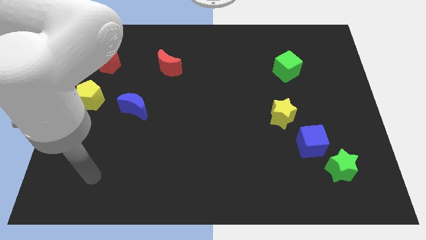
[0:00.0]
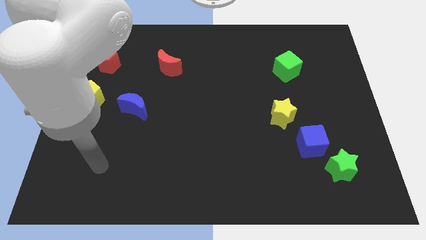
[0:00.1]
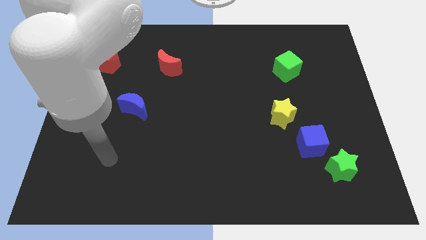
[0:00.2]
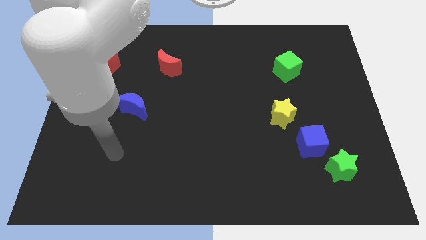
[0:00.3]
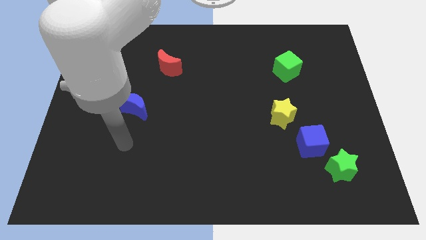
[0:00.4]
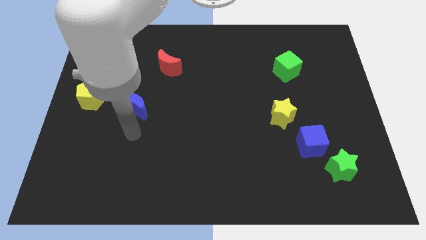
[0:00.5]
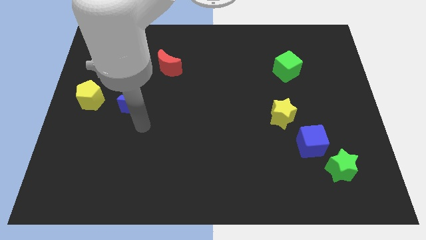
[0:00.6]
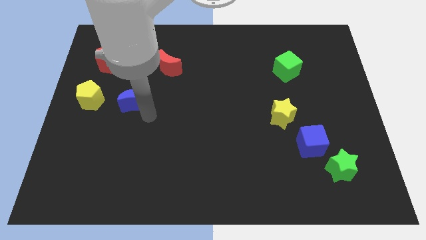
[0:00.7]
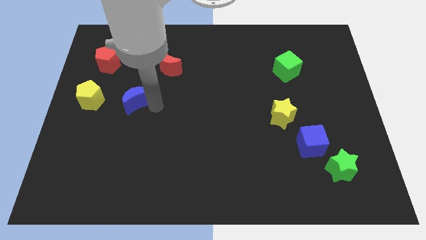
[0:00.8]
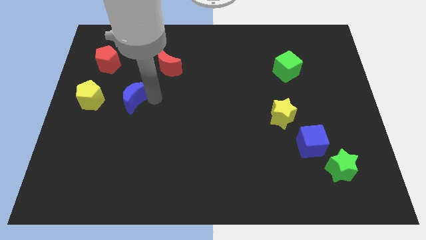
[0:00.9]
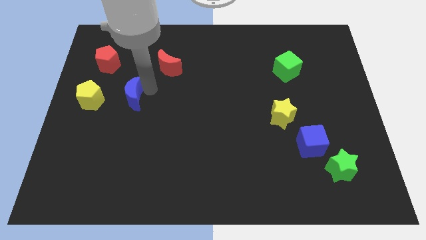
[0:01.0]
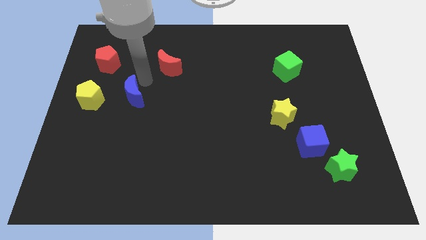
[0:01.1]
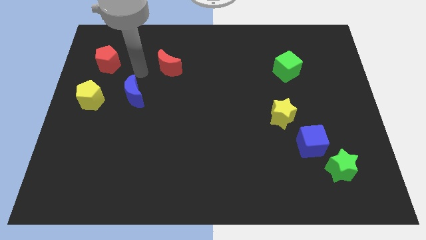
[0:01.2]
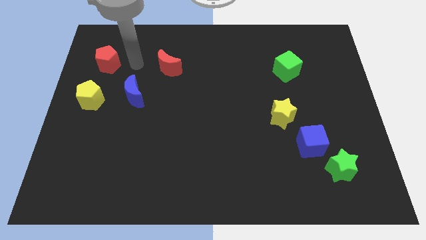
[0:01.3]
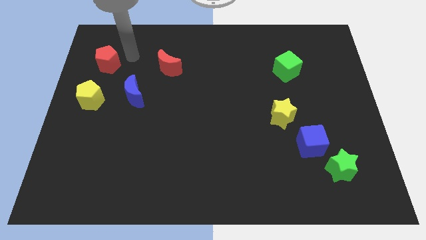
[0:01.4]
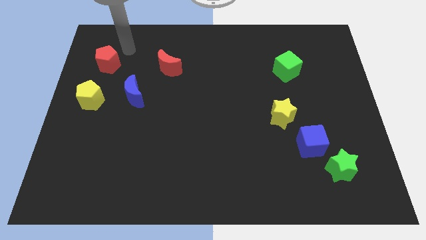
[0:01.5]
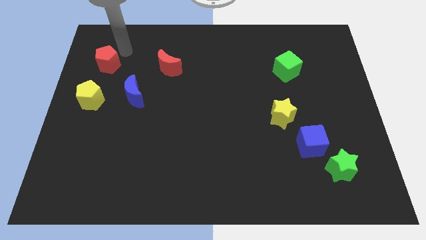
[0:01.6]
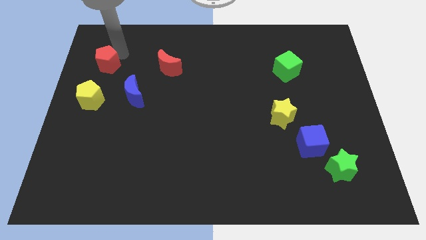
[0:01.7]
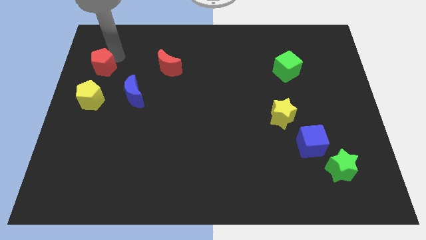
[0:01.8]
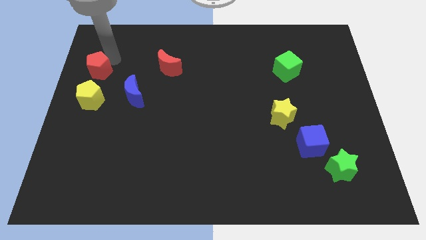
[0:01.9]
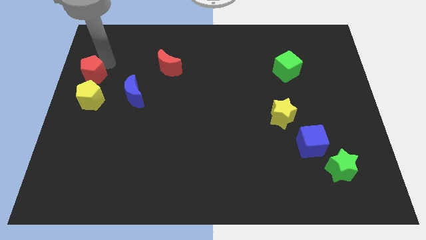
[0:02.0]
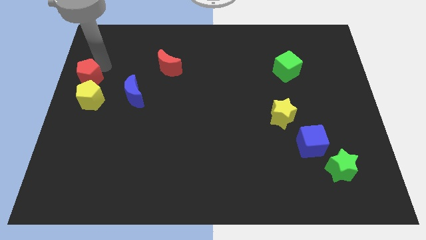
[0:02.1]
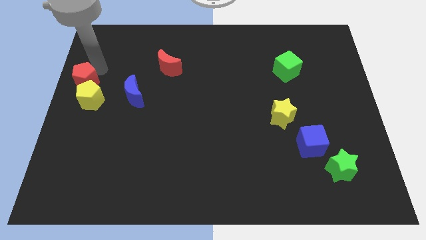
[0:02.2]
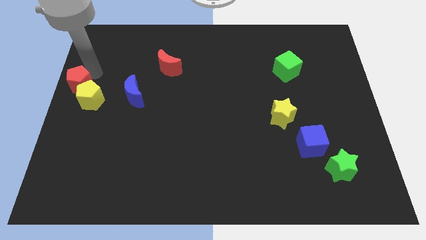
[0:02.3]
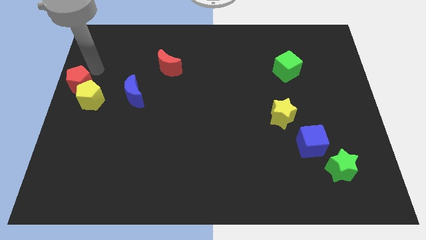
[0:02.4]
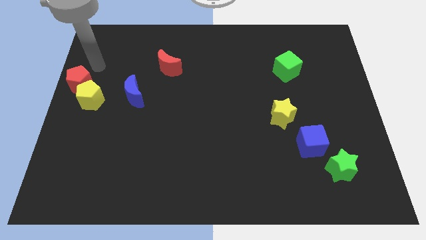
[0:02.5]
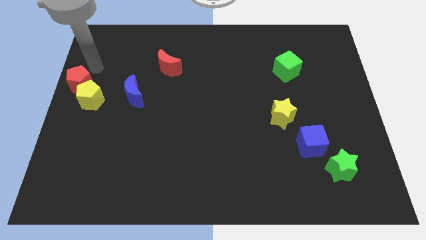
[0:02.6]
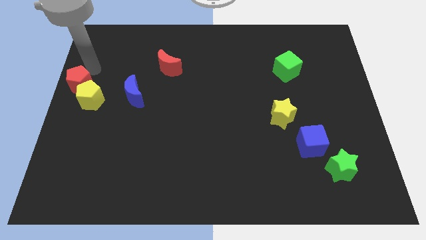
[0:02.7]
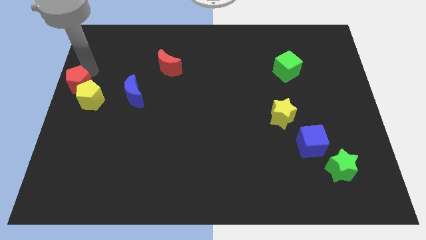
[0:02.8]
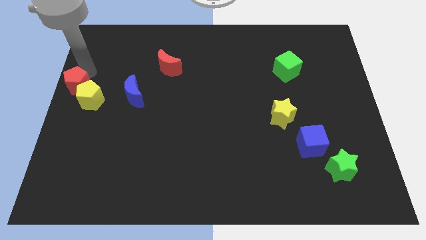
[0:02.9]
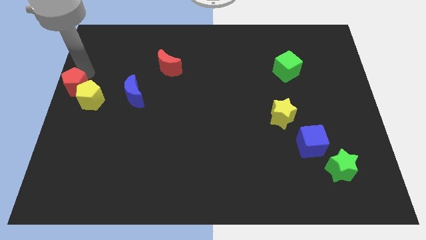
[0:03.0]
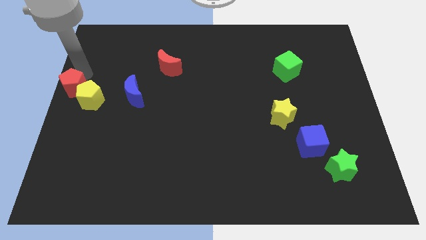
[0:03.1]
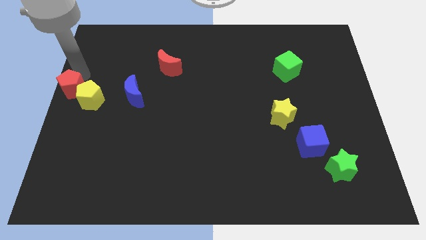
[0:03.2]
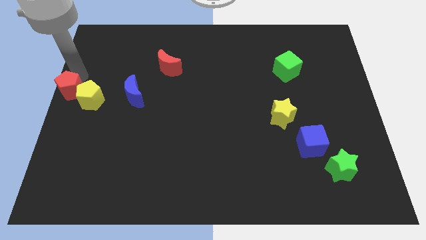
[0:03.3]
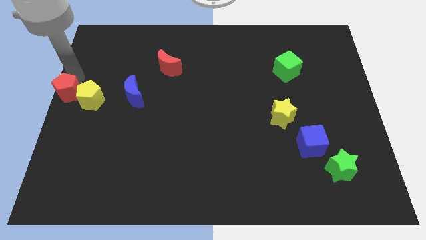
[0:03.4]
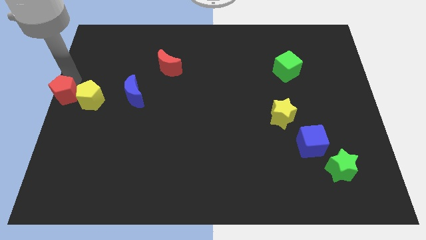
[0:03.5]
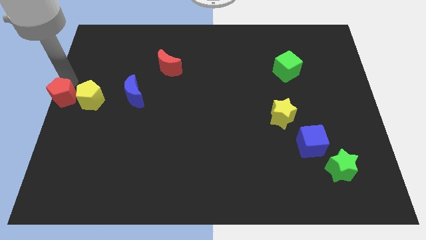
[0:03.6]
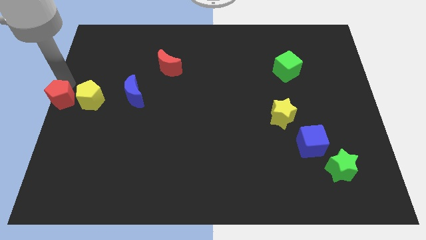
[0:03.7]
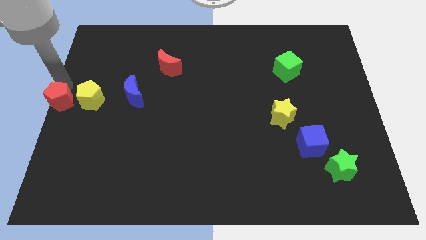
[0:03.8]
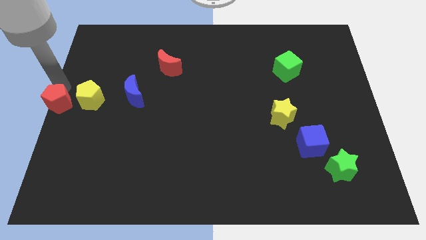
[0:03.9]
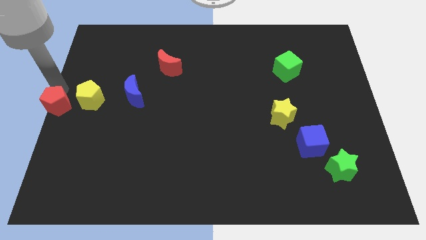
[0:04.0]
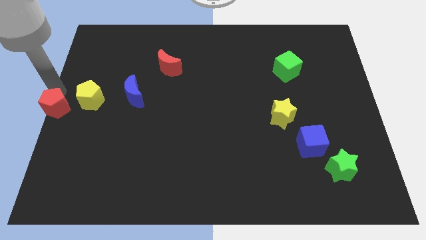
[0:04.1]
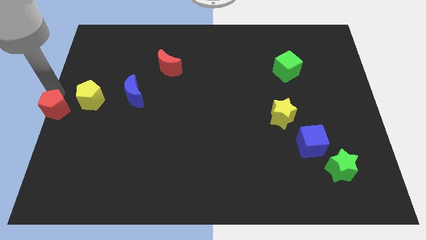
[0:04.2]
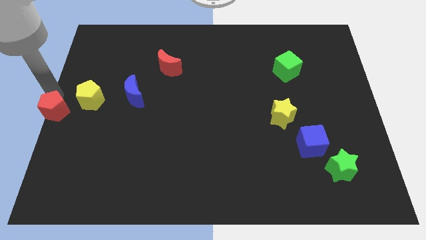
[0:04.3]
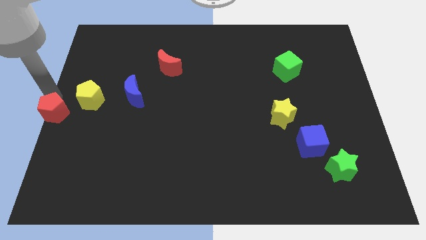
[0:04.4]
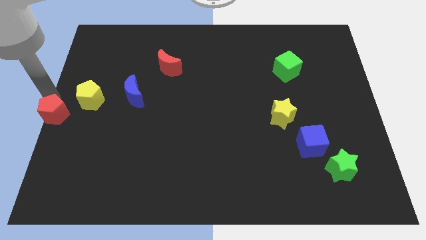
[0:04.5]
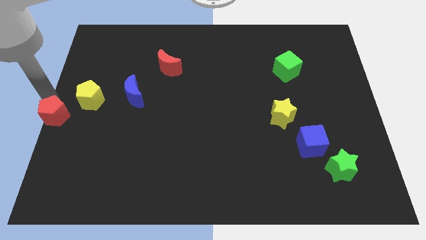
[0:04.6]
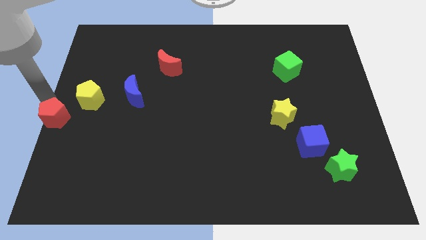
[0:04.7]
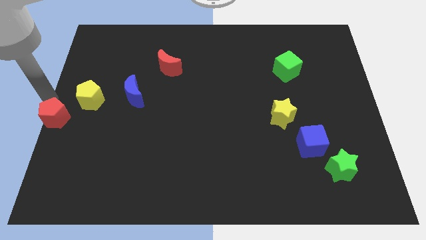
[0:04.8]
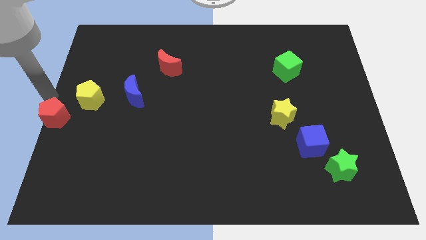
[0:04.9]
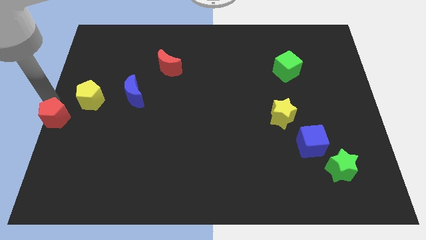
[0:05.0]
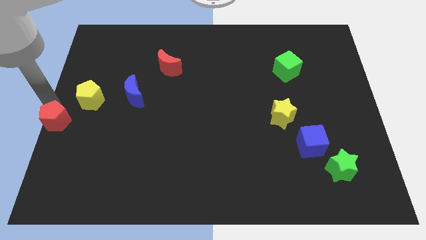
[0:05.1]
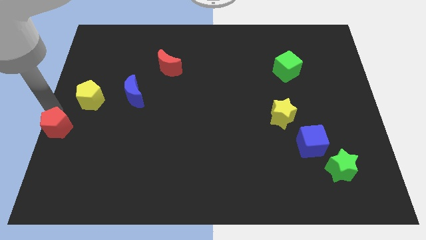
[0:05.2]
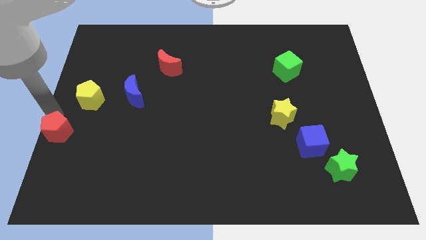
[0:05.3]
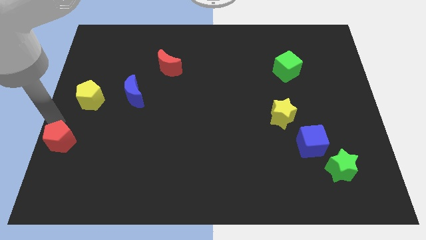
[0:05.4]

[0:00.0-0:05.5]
move the red pentagon down

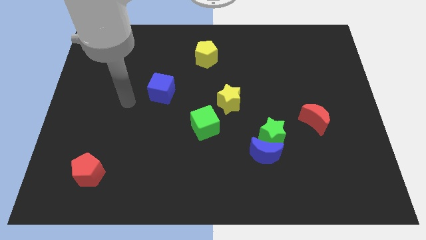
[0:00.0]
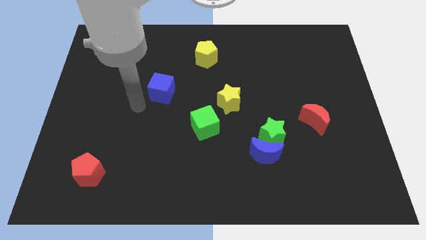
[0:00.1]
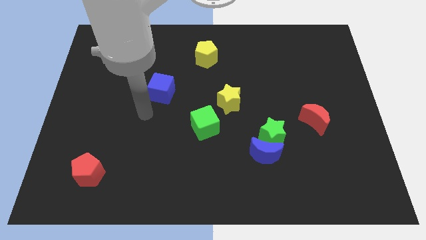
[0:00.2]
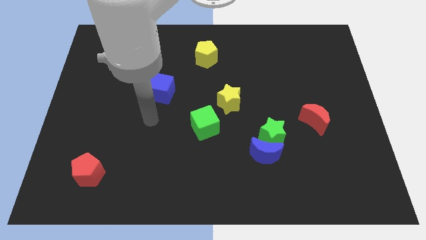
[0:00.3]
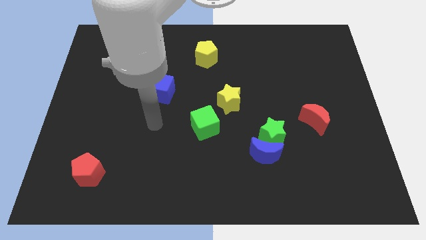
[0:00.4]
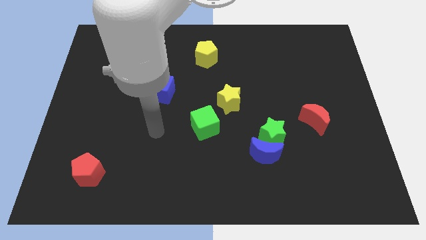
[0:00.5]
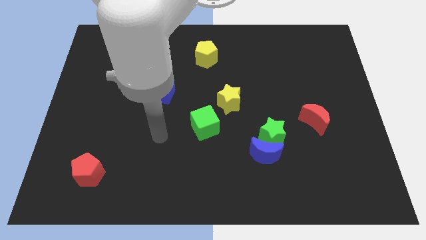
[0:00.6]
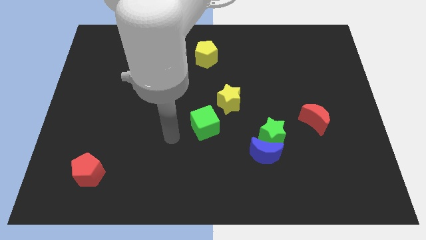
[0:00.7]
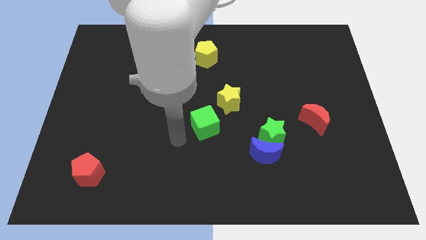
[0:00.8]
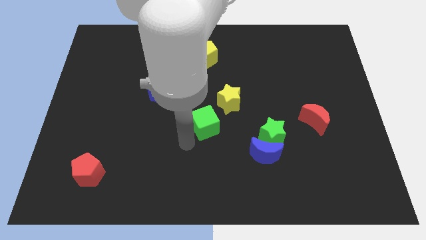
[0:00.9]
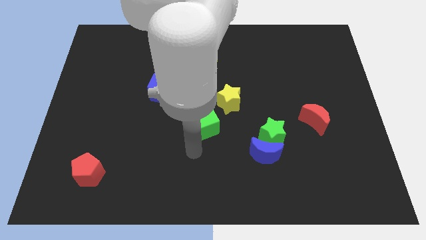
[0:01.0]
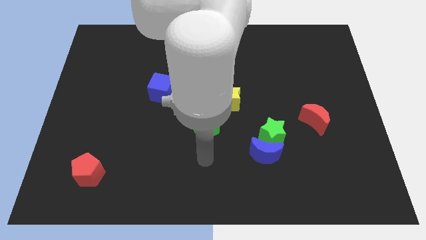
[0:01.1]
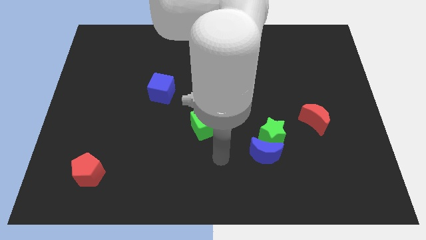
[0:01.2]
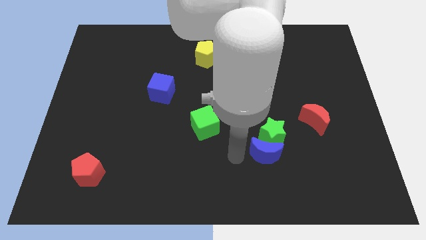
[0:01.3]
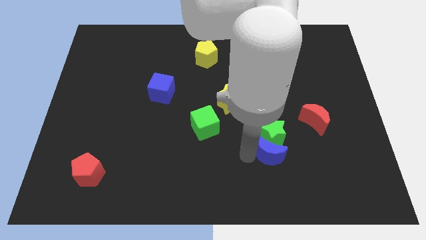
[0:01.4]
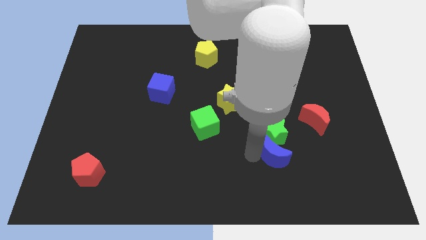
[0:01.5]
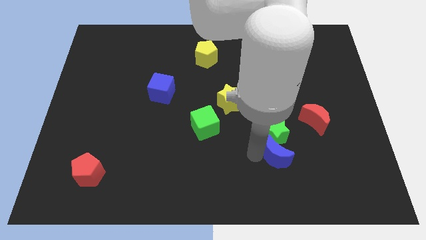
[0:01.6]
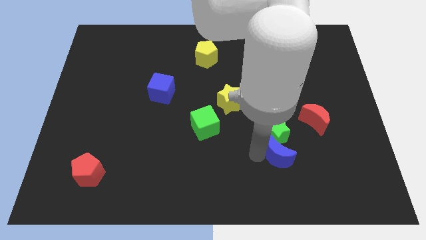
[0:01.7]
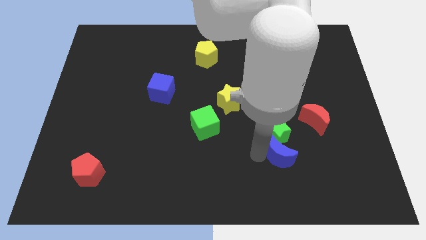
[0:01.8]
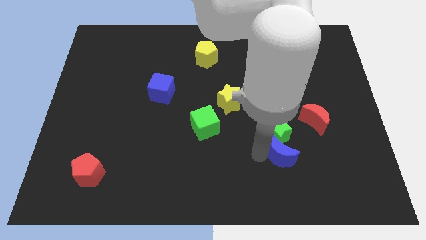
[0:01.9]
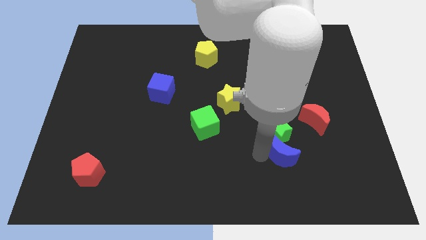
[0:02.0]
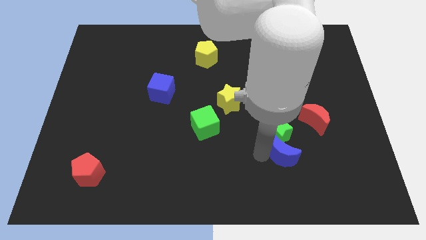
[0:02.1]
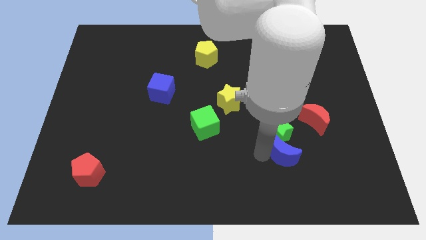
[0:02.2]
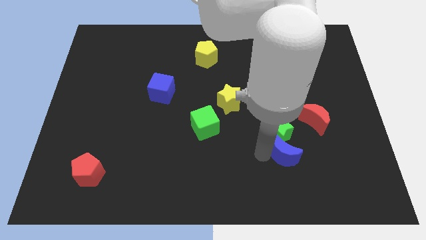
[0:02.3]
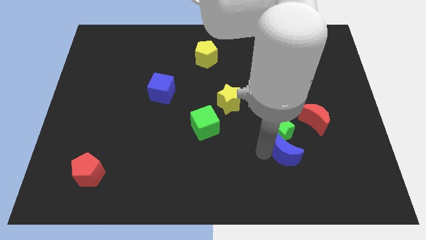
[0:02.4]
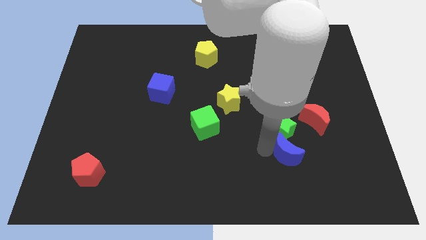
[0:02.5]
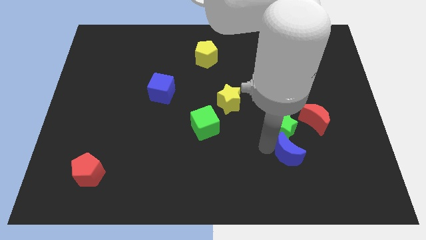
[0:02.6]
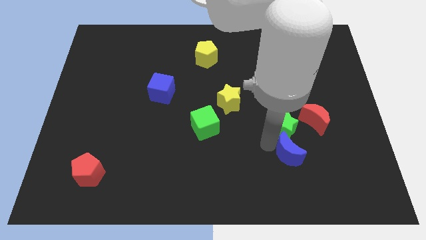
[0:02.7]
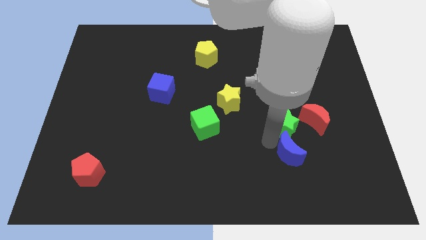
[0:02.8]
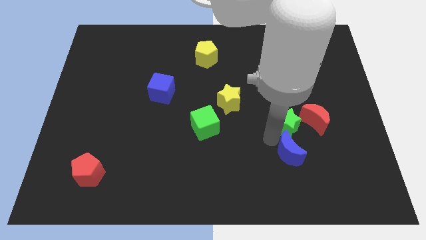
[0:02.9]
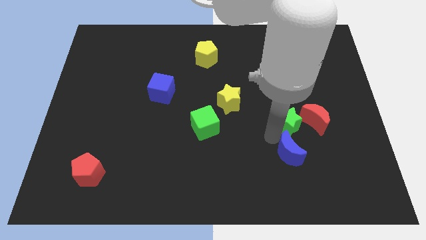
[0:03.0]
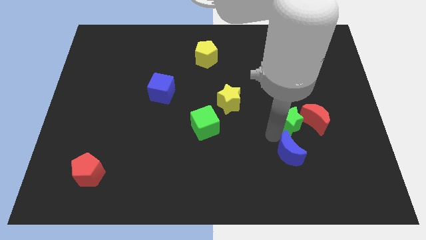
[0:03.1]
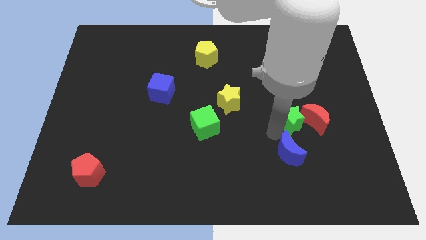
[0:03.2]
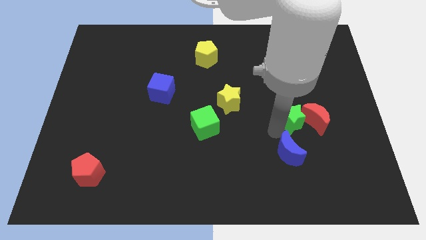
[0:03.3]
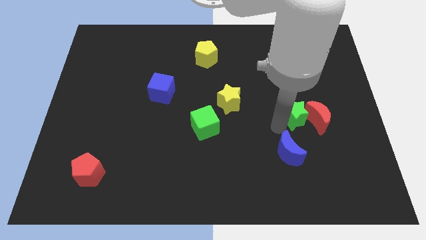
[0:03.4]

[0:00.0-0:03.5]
move the green star somewhat upwards and right
